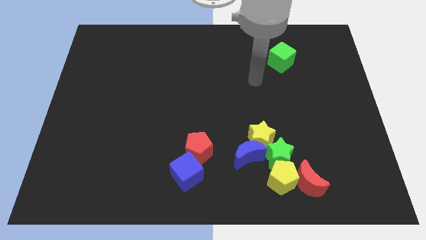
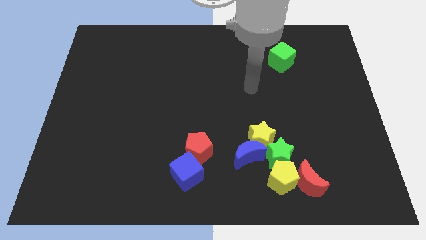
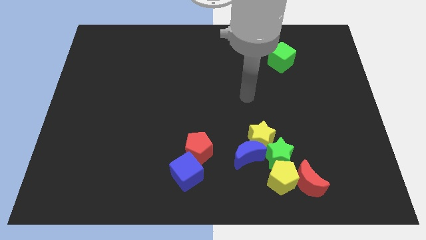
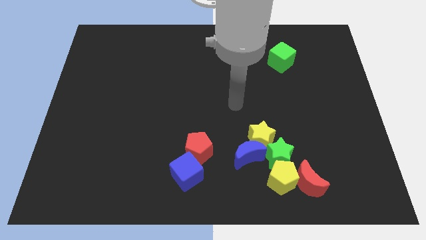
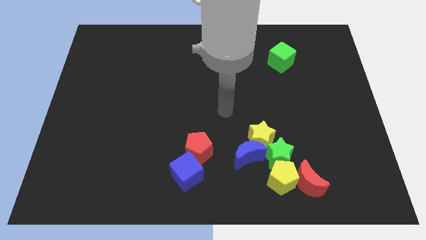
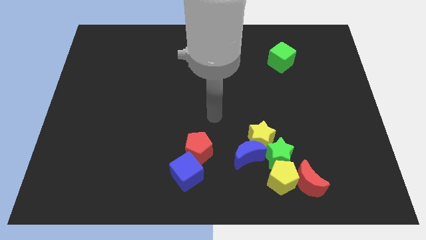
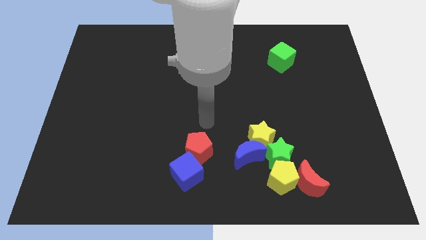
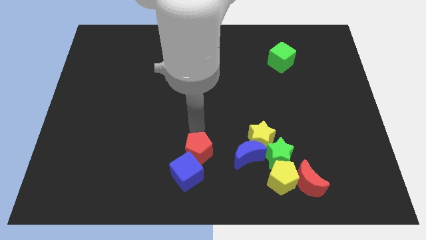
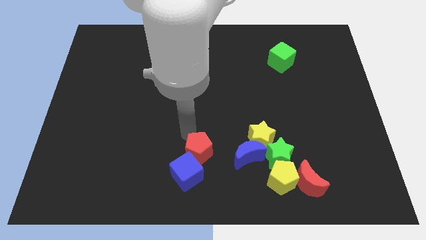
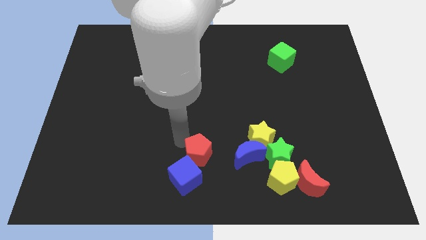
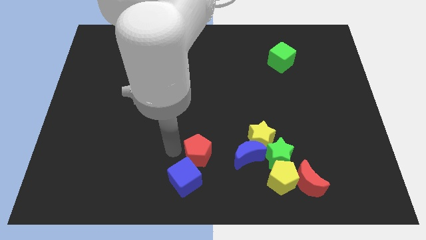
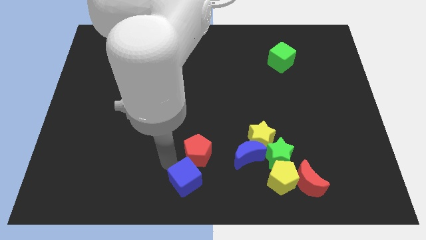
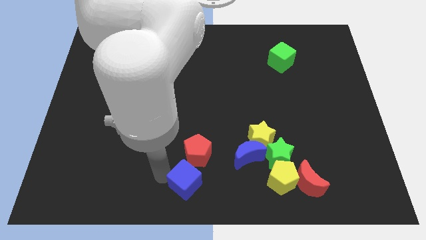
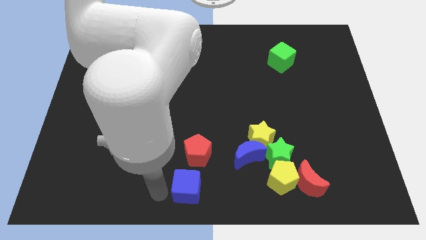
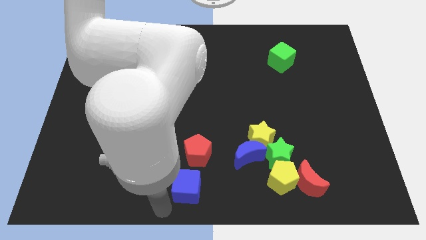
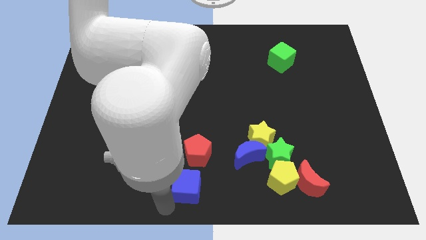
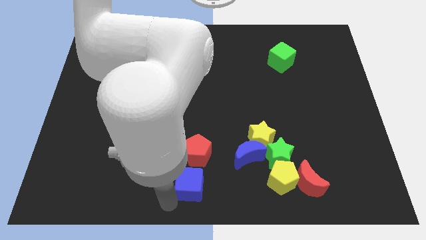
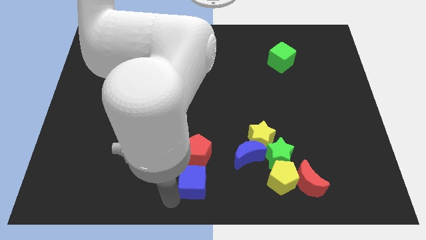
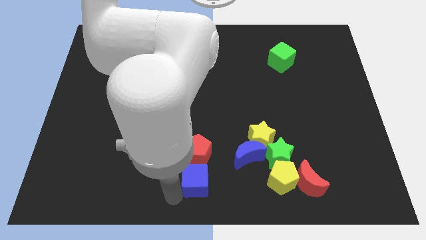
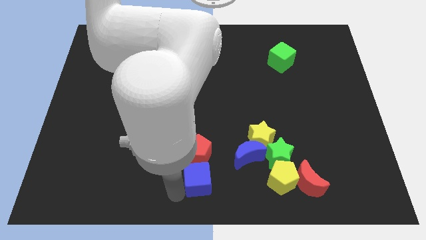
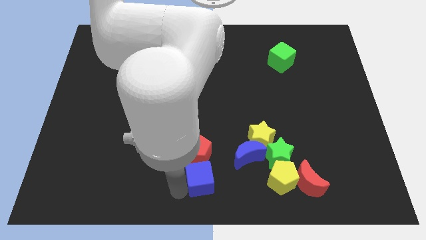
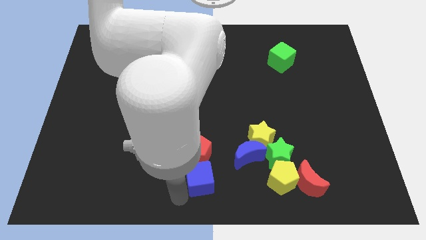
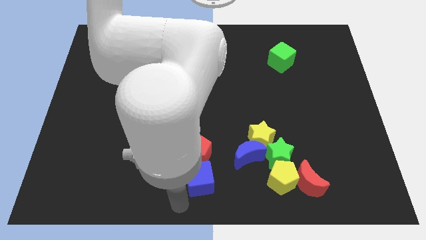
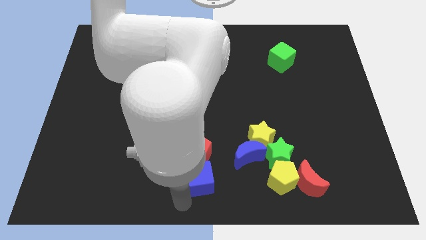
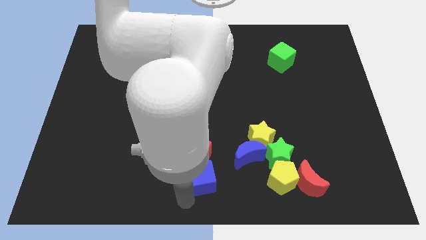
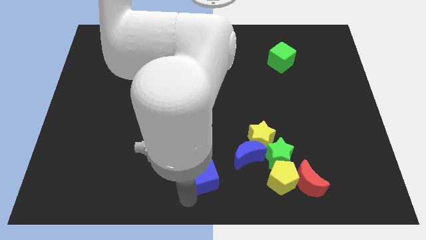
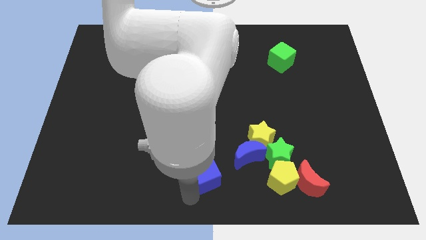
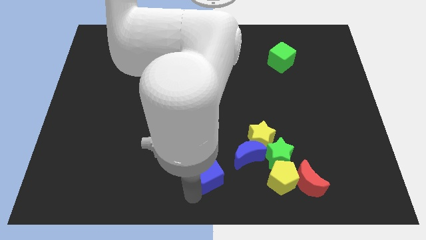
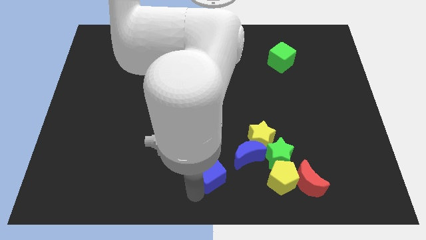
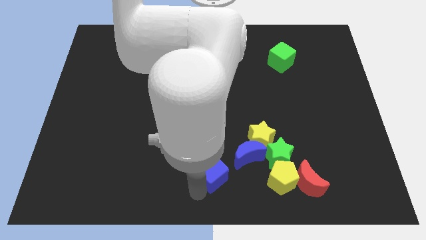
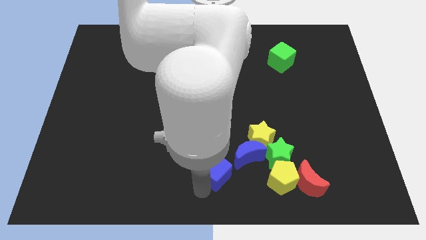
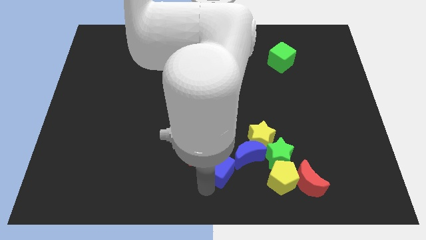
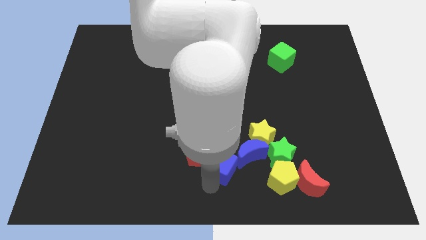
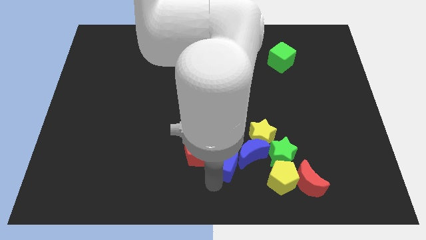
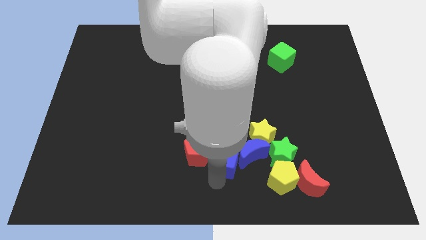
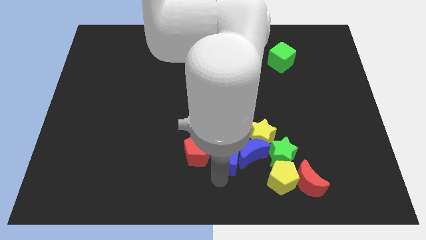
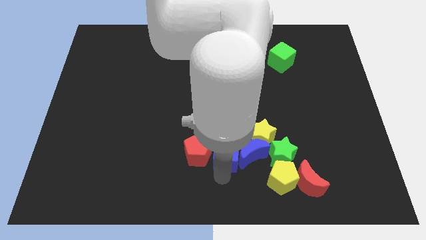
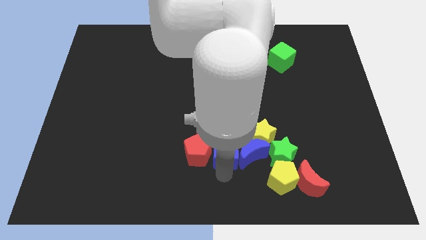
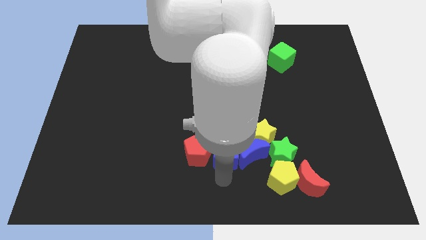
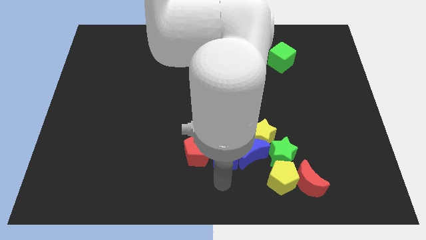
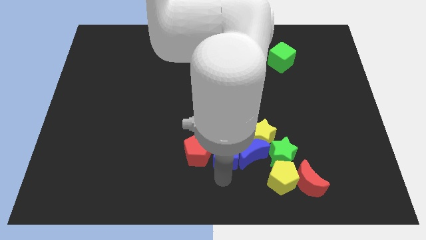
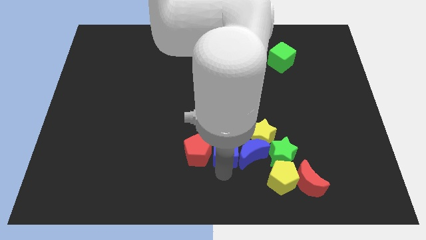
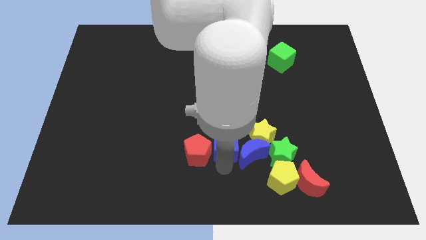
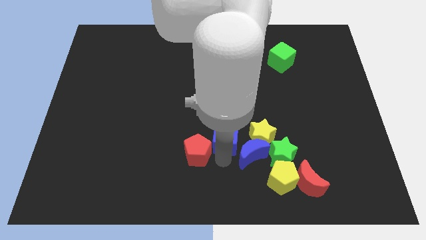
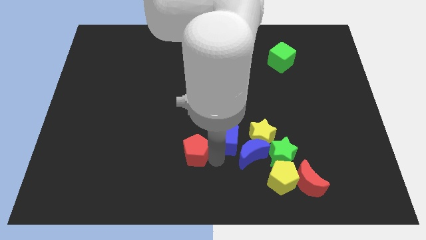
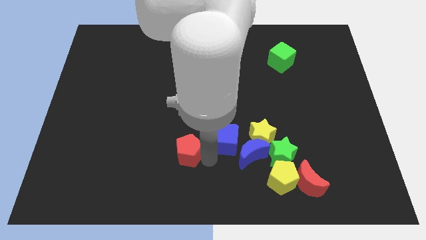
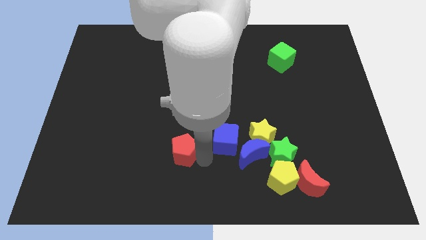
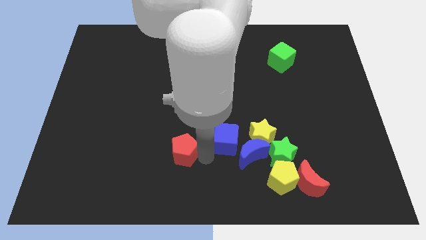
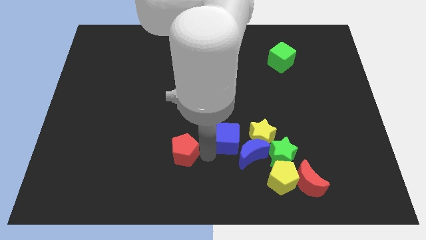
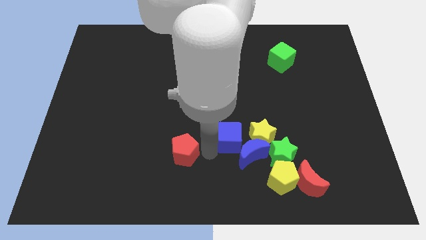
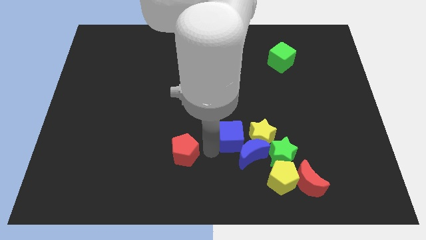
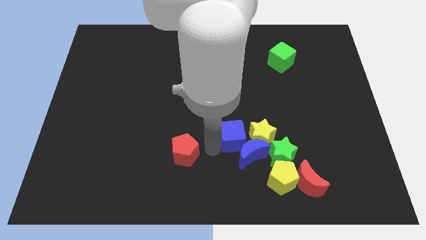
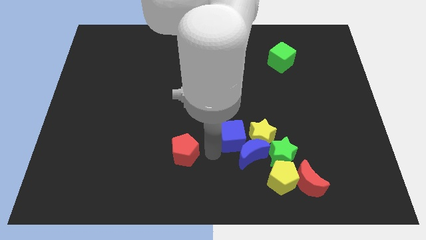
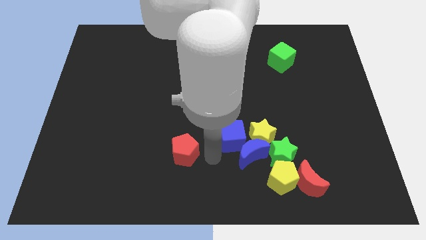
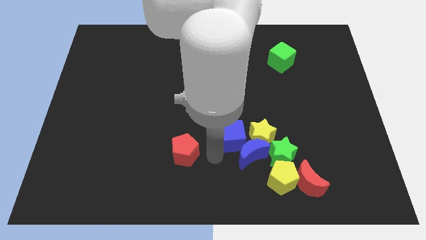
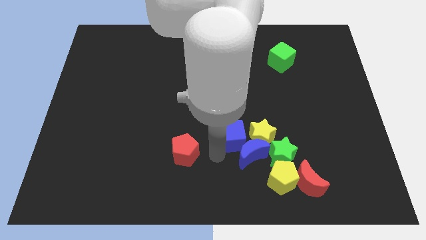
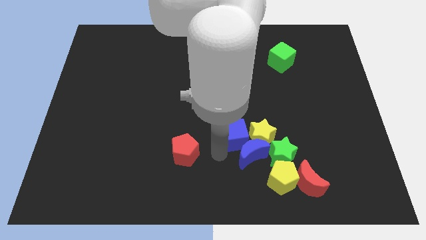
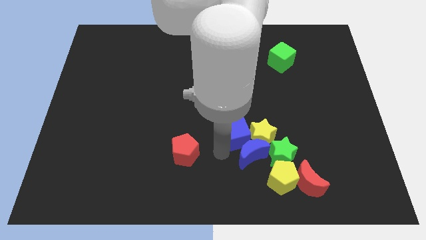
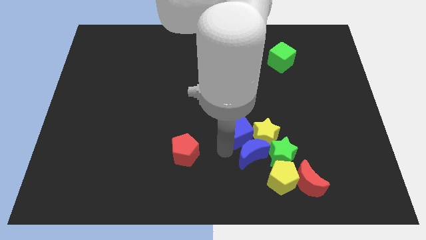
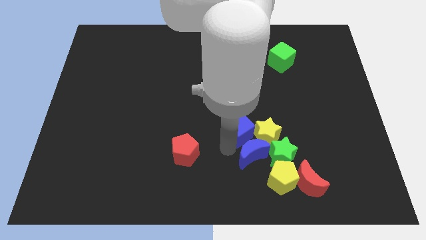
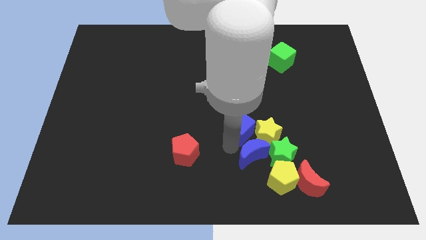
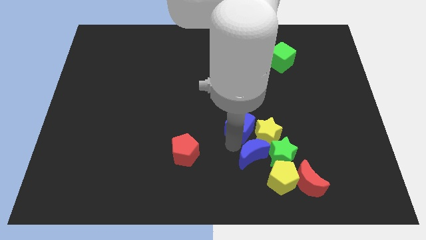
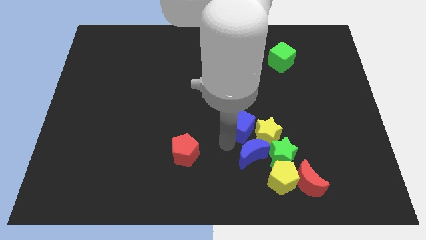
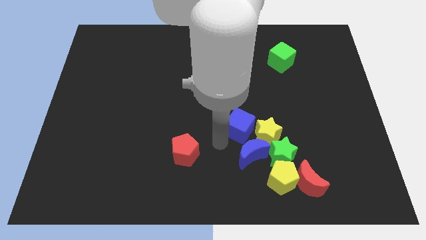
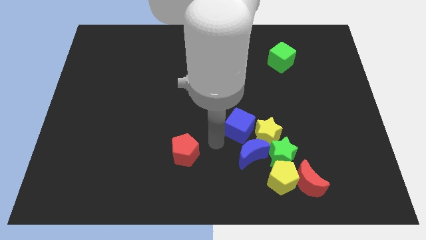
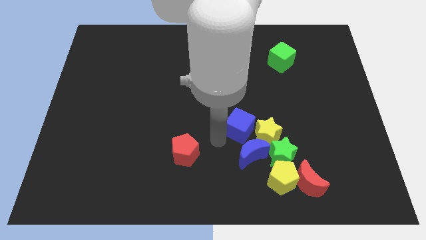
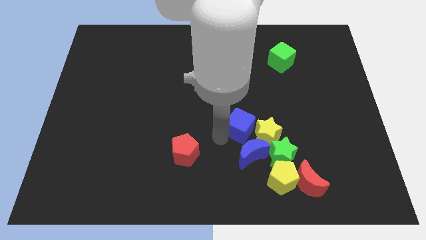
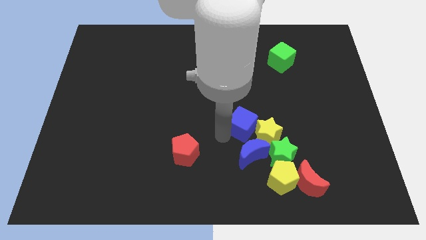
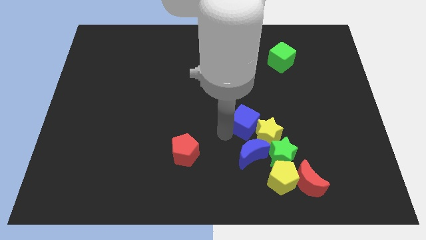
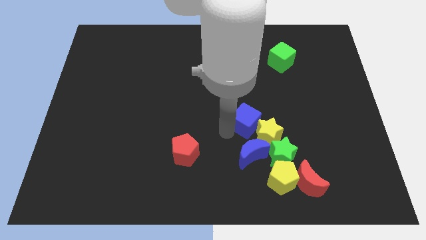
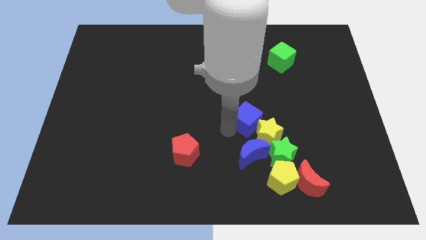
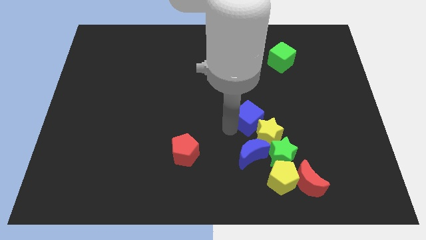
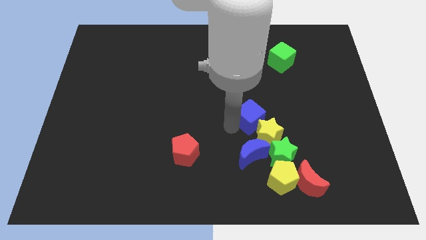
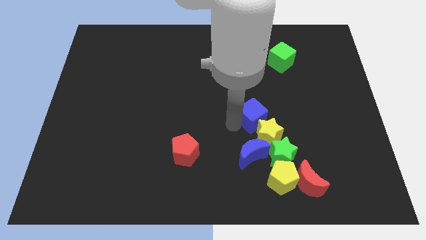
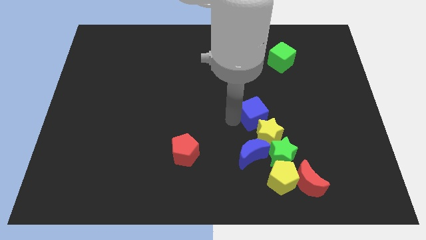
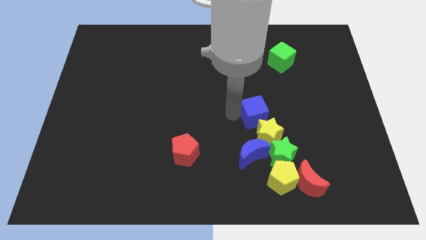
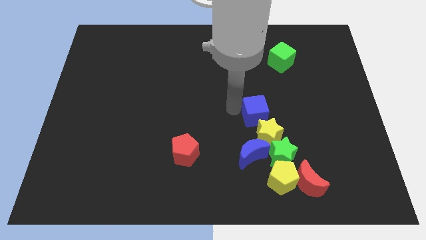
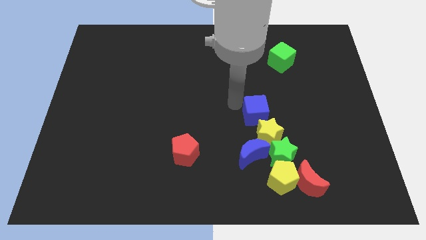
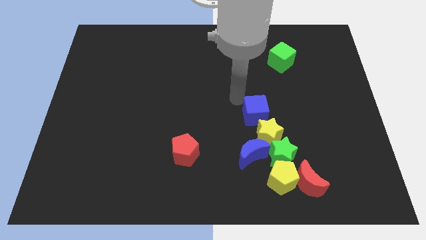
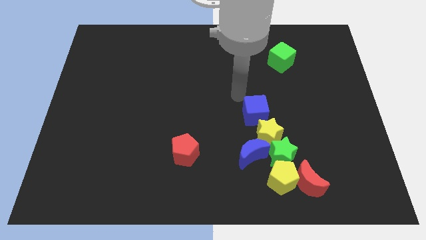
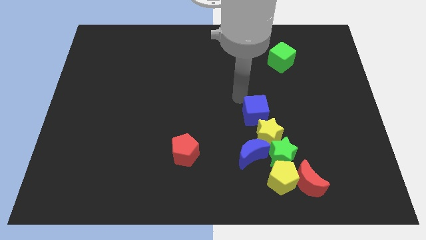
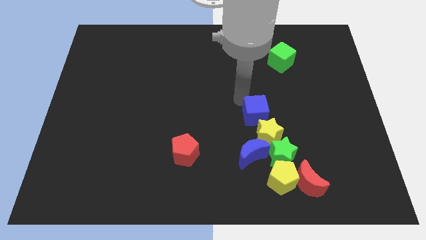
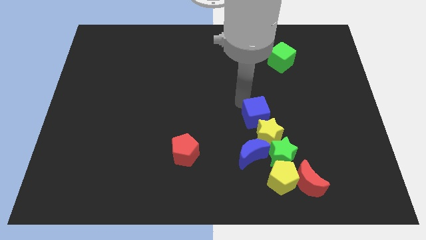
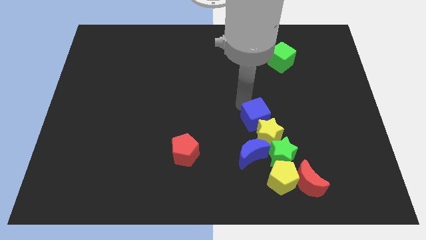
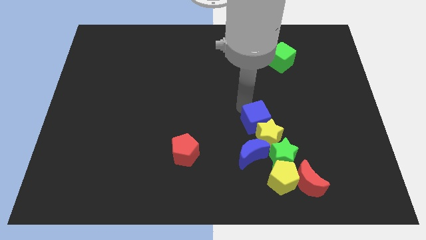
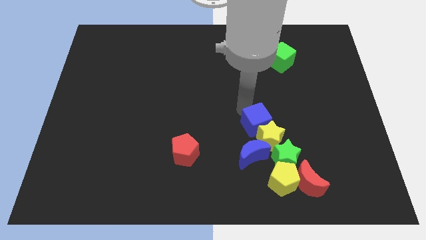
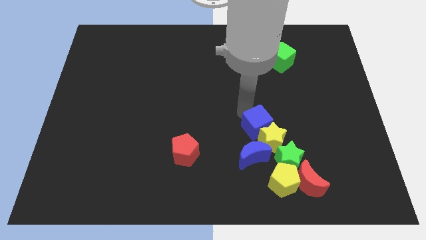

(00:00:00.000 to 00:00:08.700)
slide the blue cube above the yellow pentagon
